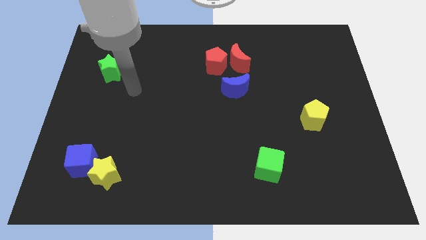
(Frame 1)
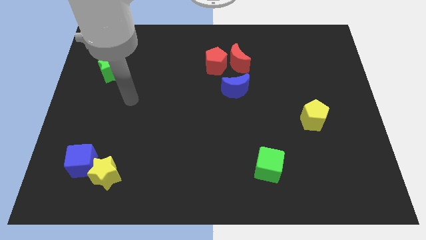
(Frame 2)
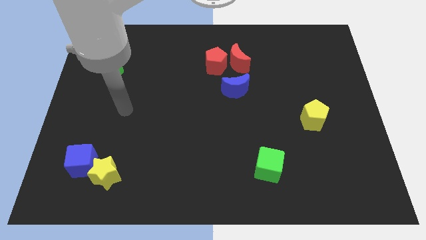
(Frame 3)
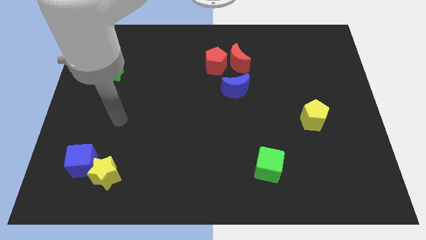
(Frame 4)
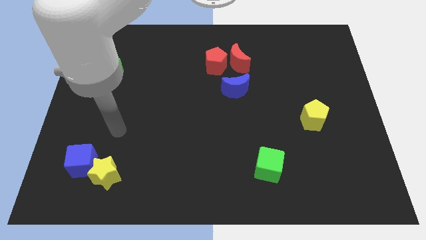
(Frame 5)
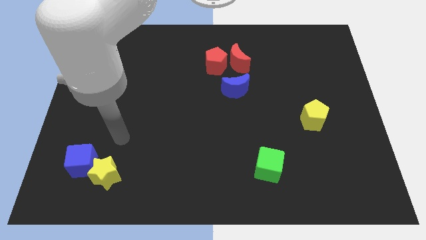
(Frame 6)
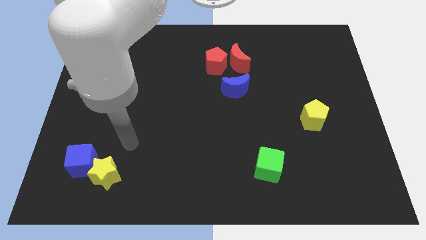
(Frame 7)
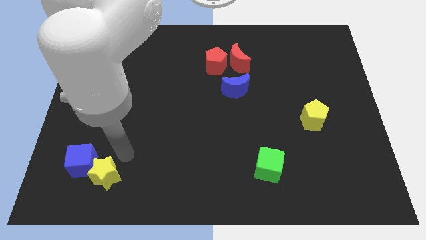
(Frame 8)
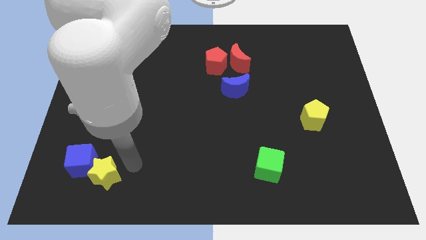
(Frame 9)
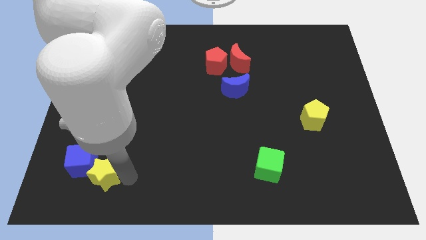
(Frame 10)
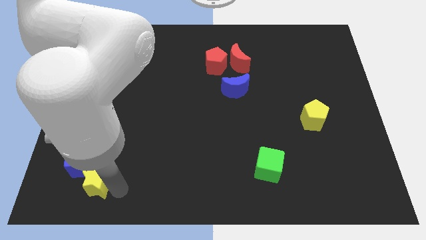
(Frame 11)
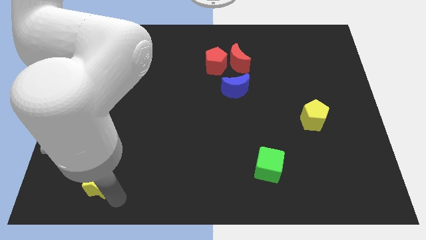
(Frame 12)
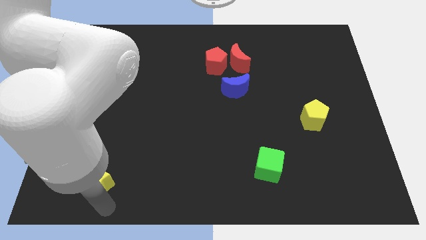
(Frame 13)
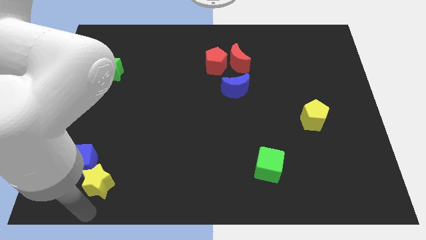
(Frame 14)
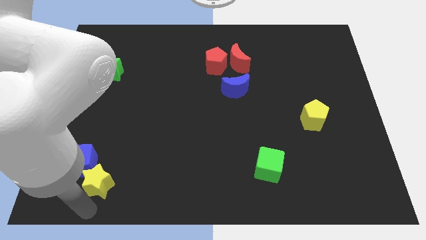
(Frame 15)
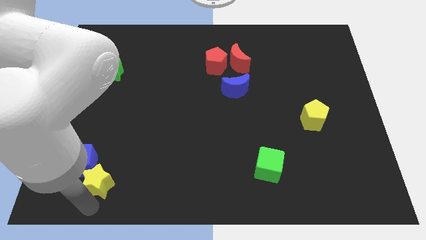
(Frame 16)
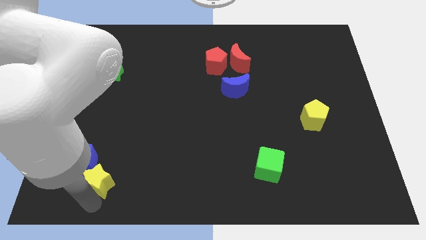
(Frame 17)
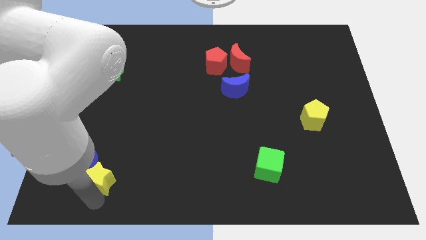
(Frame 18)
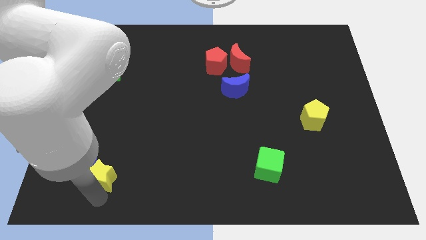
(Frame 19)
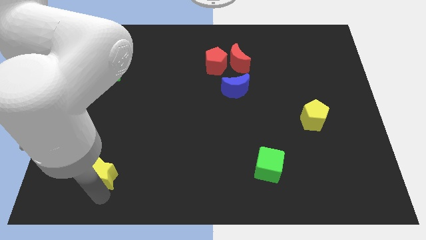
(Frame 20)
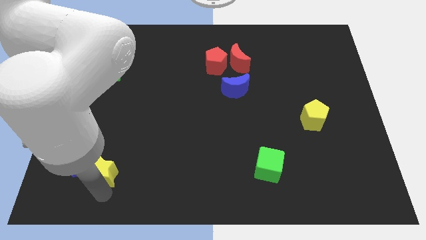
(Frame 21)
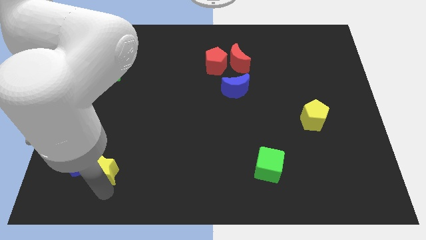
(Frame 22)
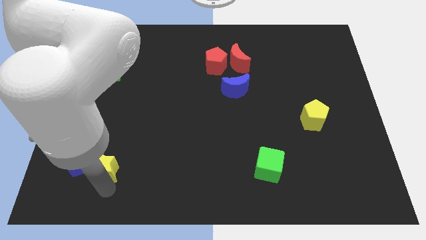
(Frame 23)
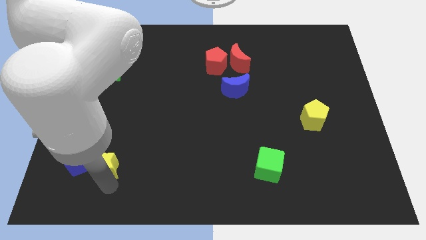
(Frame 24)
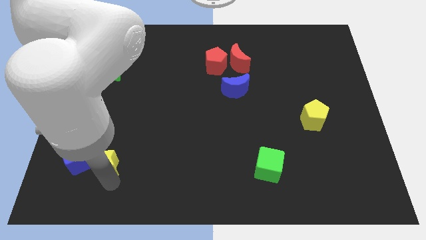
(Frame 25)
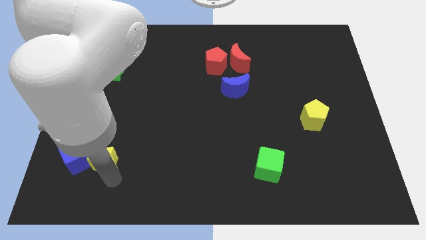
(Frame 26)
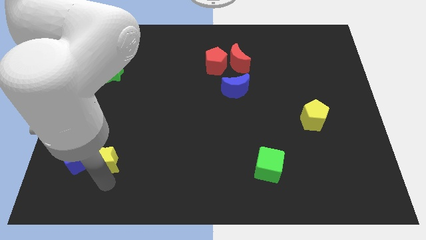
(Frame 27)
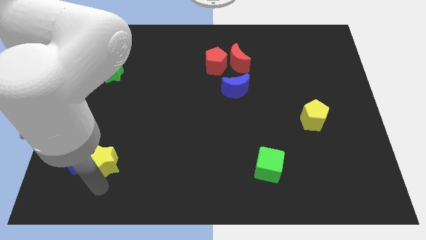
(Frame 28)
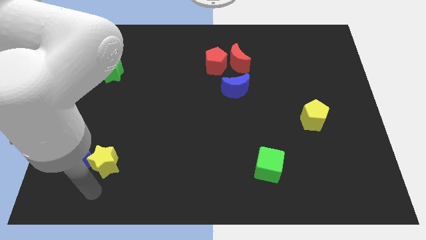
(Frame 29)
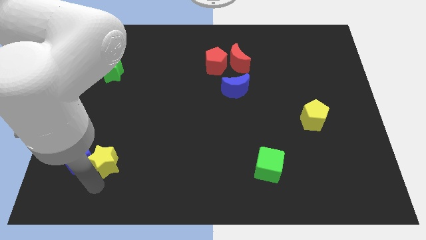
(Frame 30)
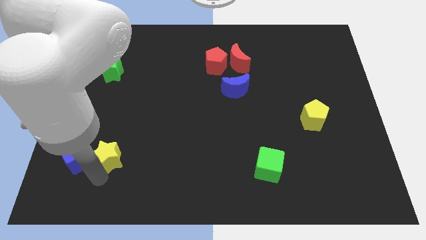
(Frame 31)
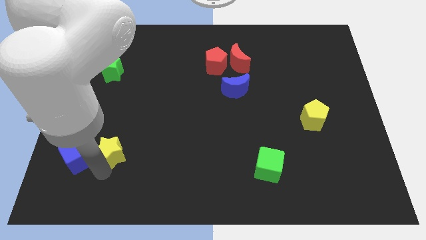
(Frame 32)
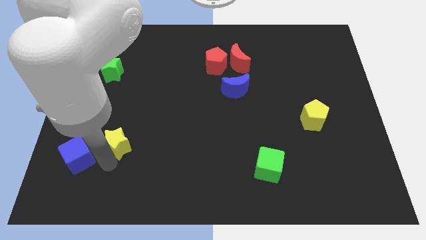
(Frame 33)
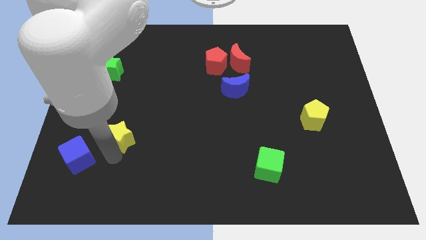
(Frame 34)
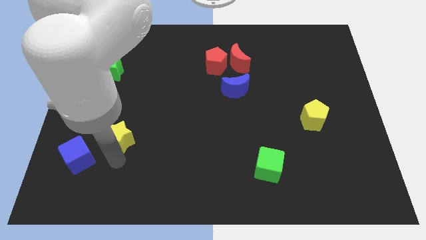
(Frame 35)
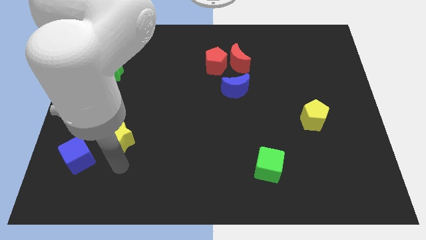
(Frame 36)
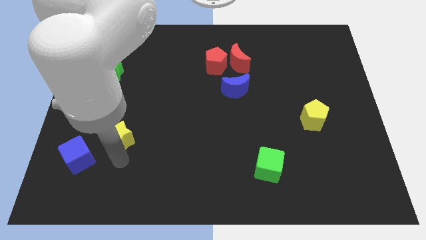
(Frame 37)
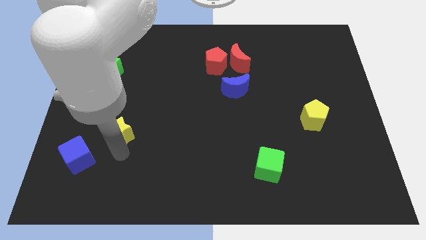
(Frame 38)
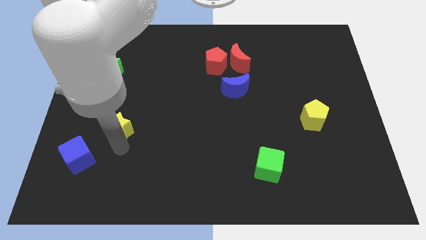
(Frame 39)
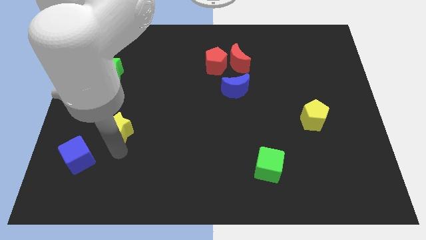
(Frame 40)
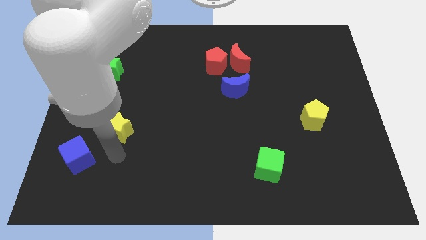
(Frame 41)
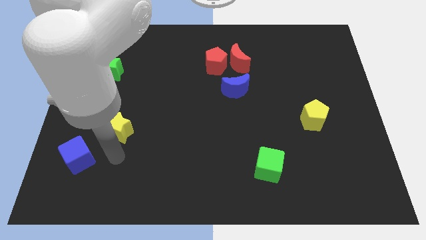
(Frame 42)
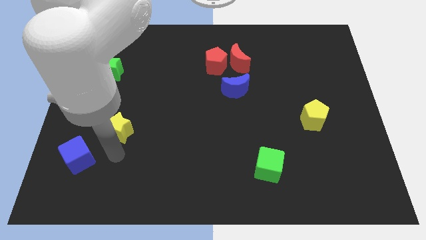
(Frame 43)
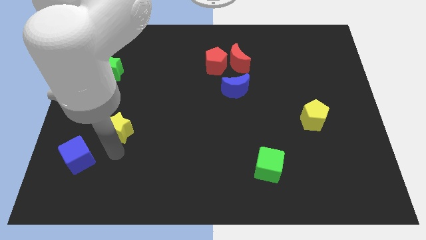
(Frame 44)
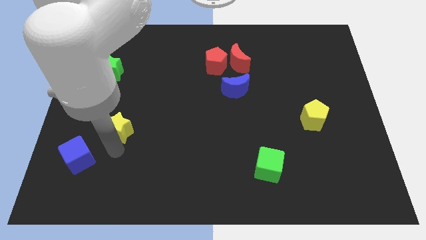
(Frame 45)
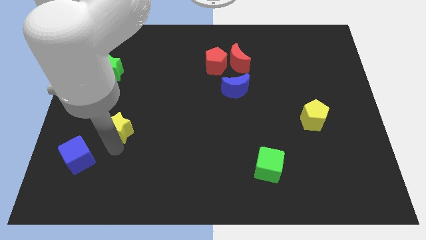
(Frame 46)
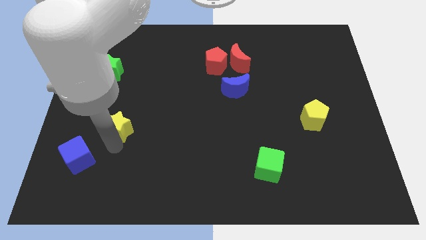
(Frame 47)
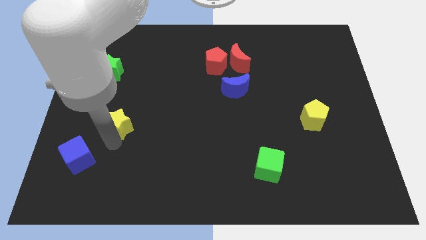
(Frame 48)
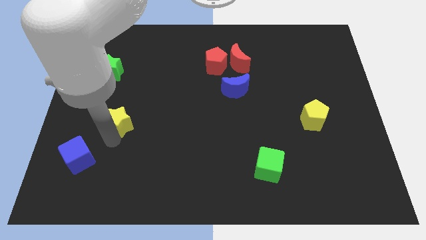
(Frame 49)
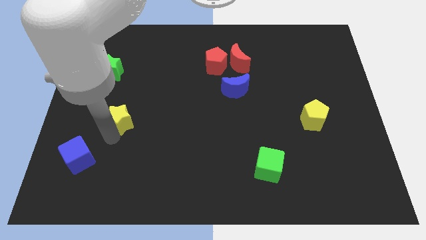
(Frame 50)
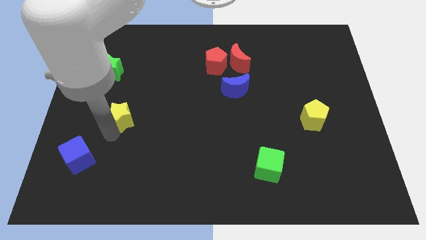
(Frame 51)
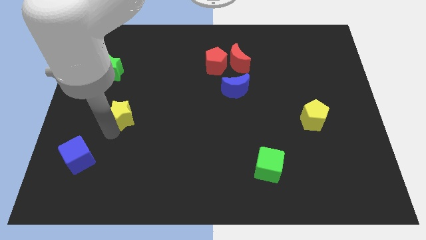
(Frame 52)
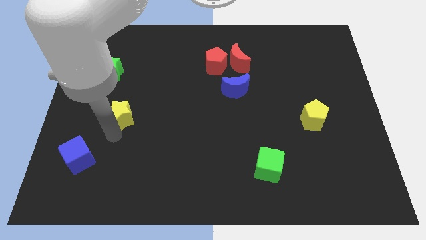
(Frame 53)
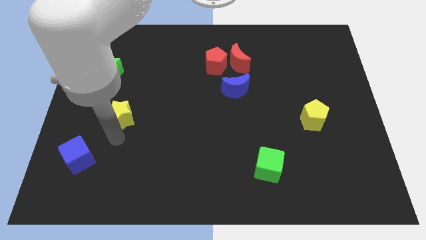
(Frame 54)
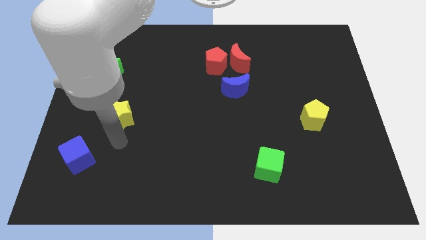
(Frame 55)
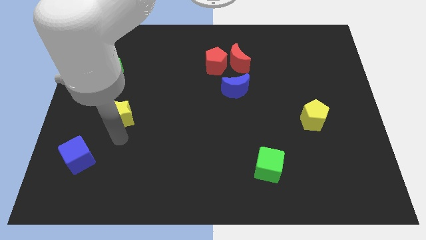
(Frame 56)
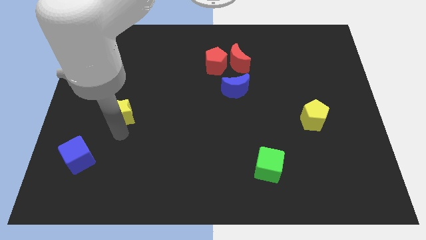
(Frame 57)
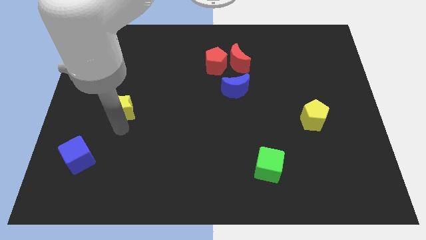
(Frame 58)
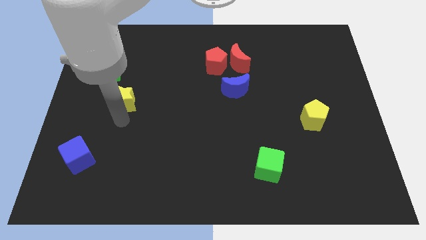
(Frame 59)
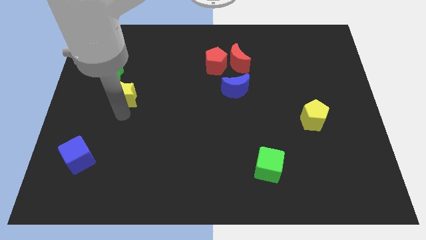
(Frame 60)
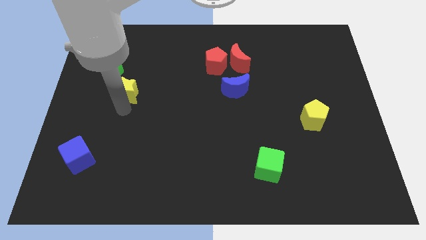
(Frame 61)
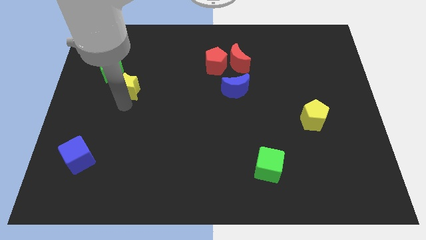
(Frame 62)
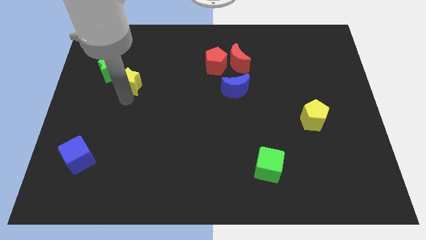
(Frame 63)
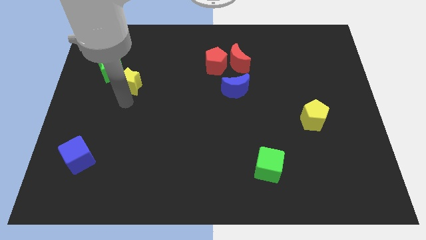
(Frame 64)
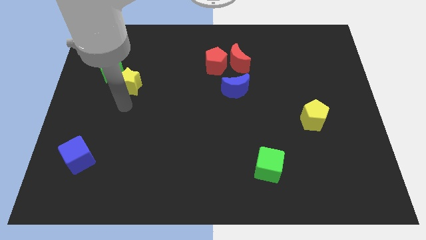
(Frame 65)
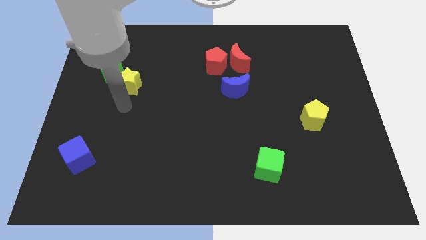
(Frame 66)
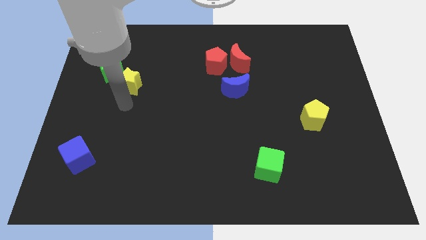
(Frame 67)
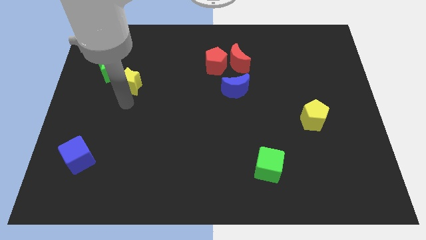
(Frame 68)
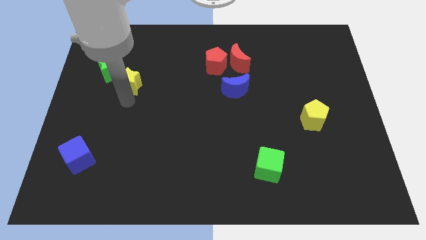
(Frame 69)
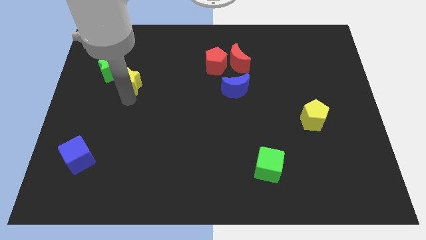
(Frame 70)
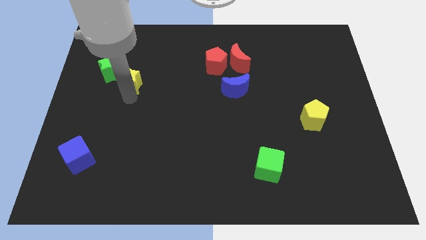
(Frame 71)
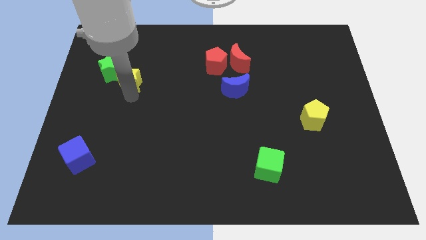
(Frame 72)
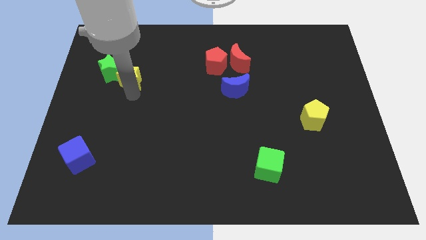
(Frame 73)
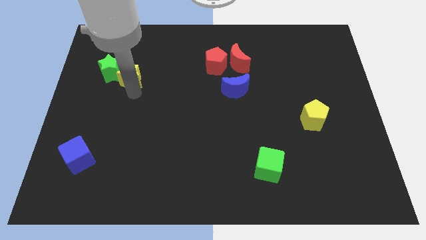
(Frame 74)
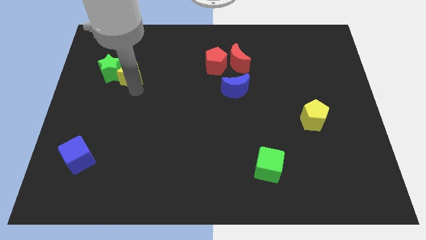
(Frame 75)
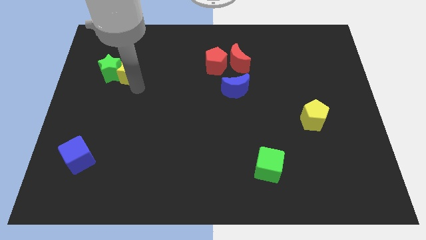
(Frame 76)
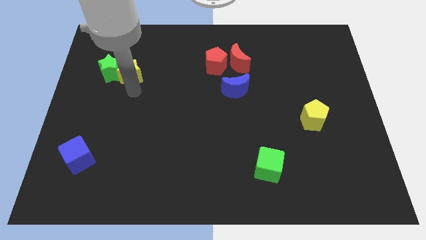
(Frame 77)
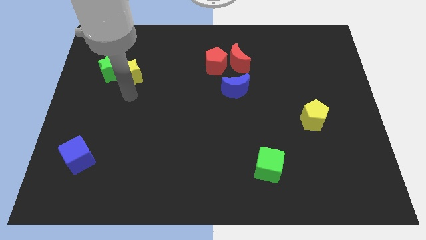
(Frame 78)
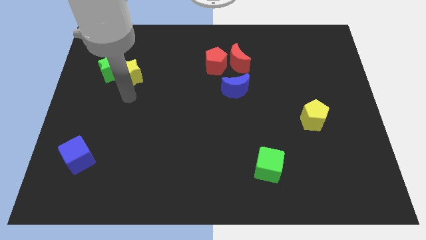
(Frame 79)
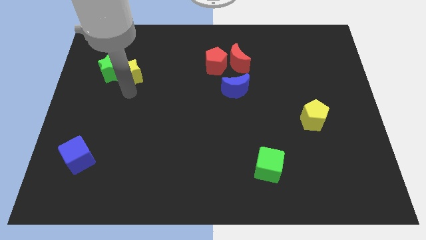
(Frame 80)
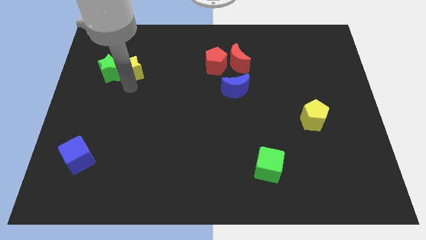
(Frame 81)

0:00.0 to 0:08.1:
push the yellow star to the top right side of the green star
